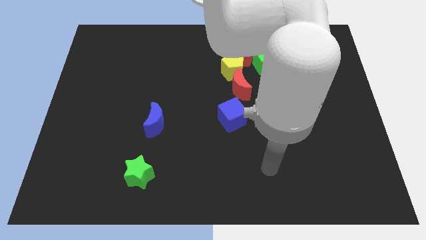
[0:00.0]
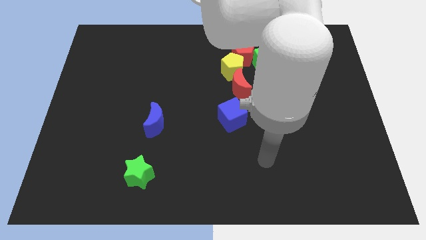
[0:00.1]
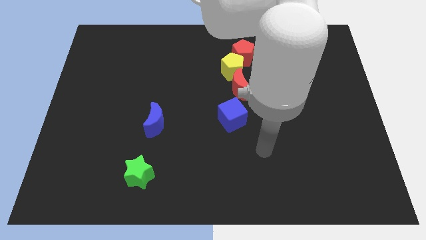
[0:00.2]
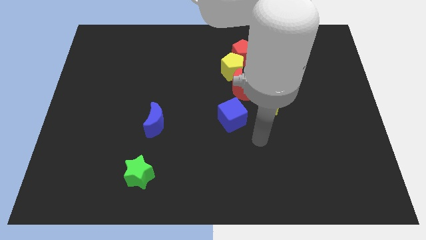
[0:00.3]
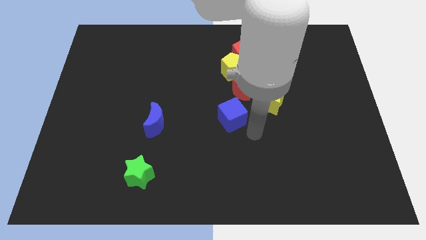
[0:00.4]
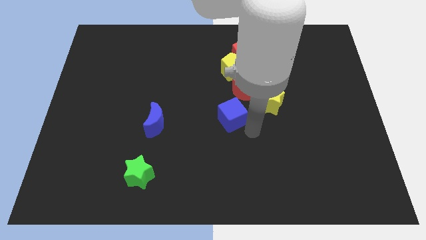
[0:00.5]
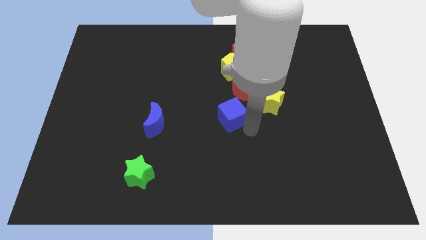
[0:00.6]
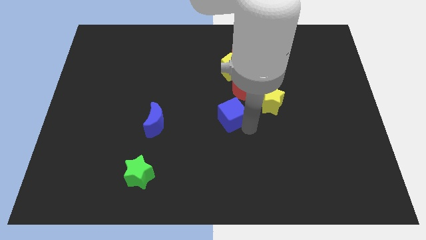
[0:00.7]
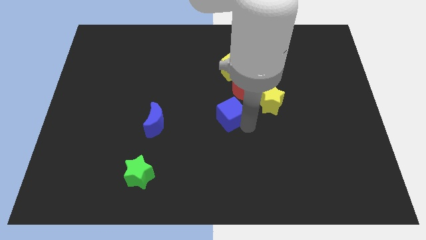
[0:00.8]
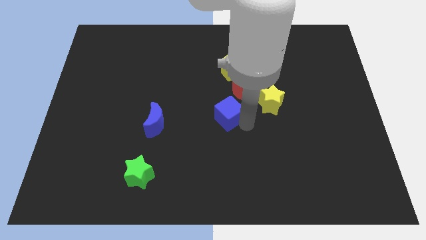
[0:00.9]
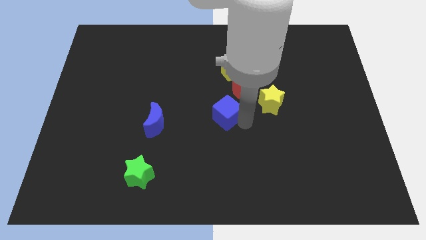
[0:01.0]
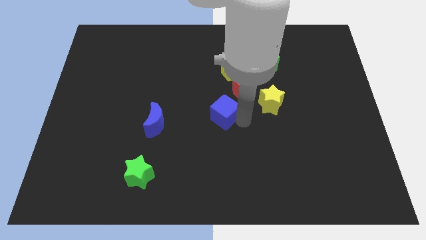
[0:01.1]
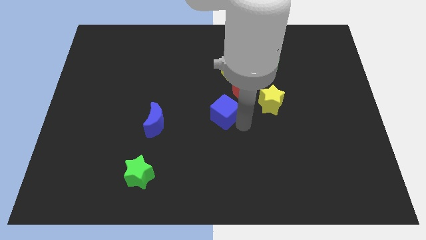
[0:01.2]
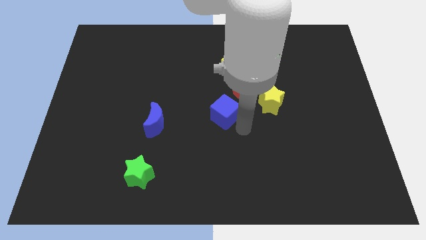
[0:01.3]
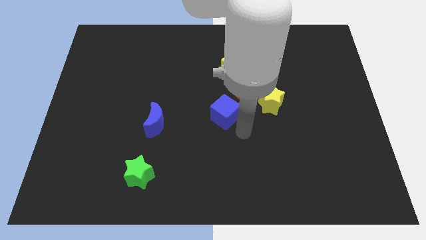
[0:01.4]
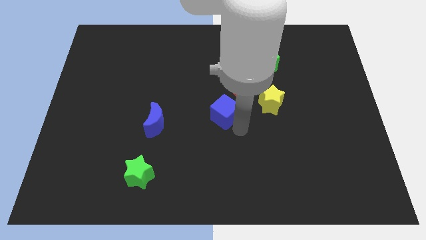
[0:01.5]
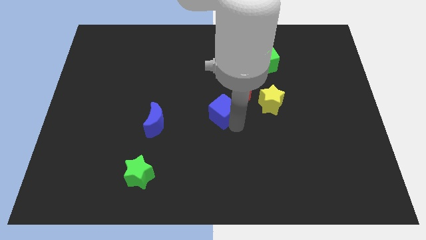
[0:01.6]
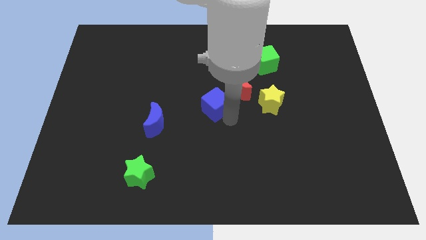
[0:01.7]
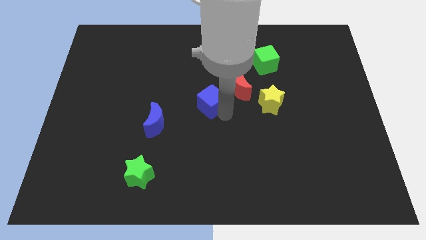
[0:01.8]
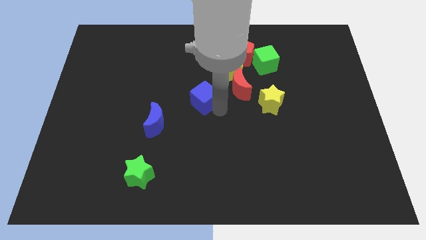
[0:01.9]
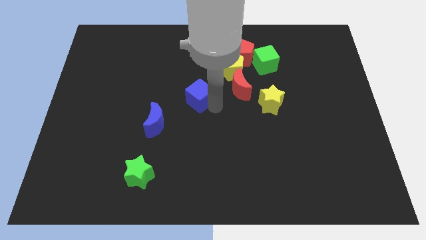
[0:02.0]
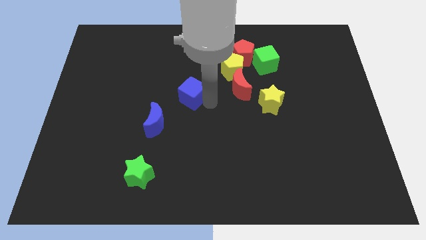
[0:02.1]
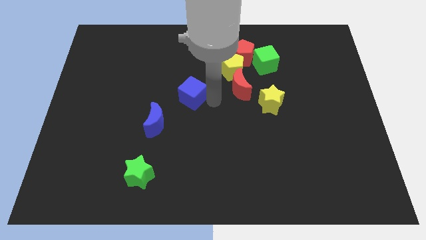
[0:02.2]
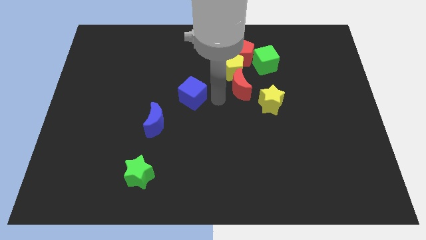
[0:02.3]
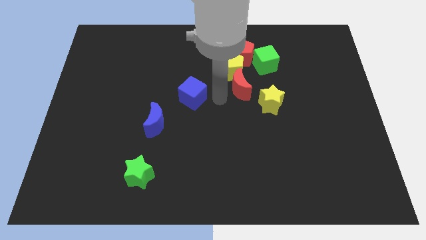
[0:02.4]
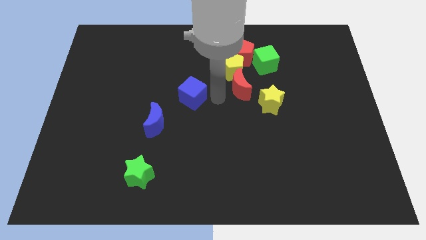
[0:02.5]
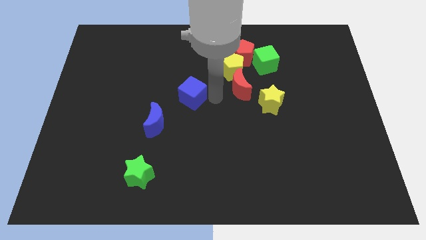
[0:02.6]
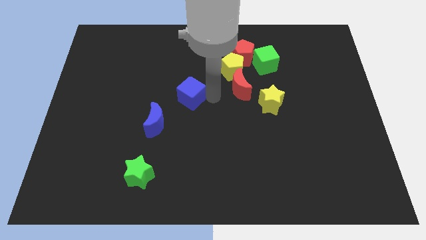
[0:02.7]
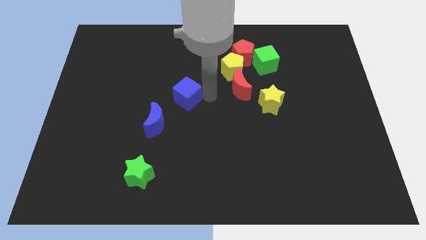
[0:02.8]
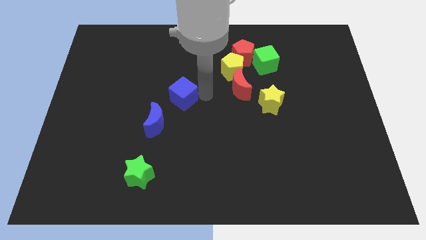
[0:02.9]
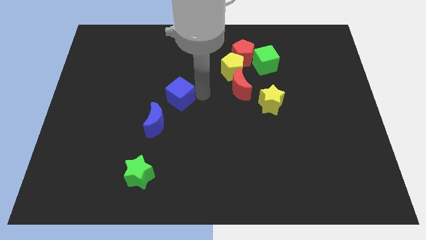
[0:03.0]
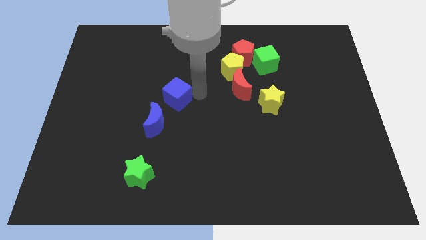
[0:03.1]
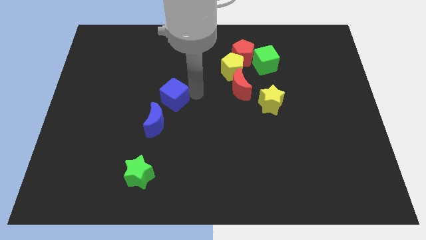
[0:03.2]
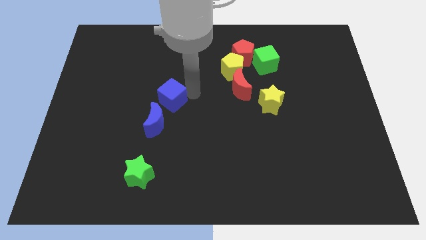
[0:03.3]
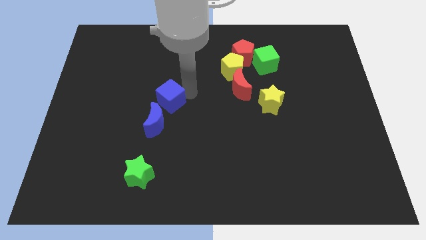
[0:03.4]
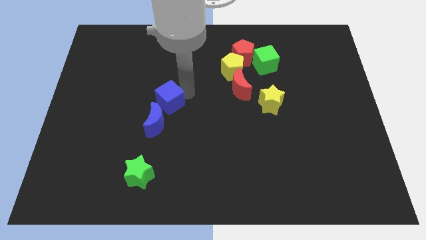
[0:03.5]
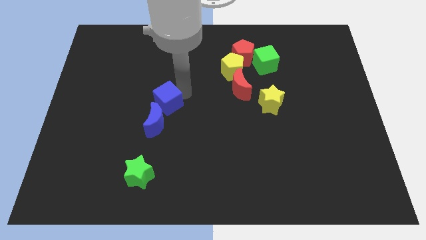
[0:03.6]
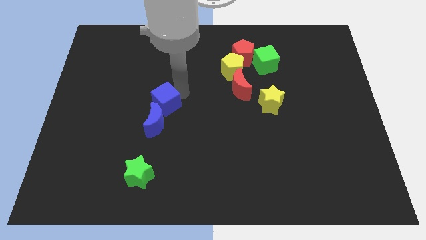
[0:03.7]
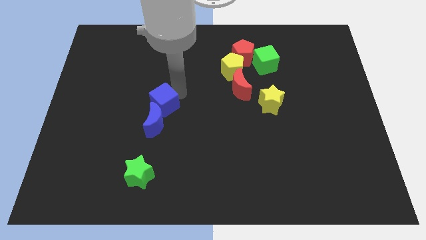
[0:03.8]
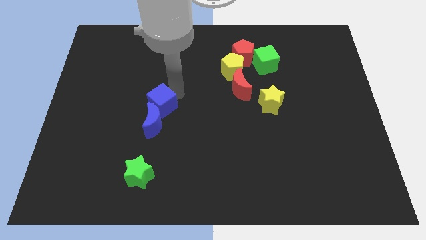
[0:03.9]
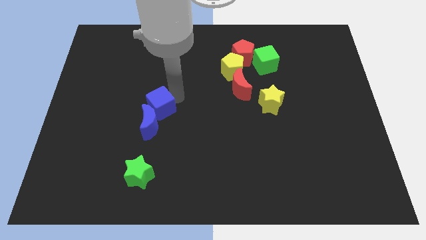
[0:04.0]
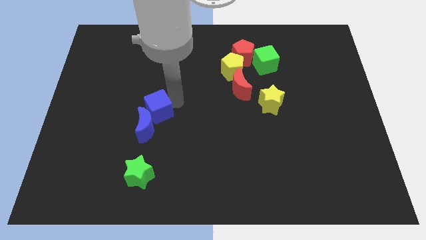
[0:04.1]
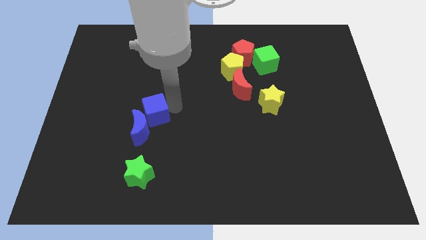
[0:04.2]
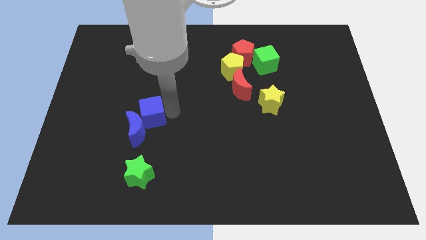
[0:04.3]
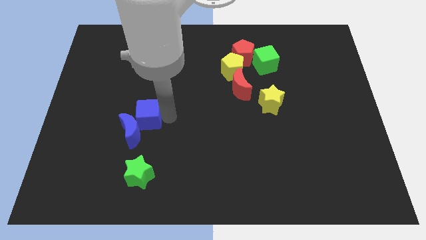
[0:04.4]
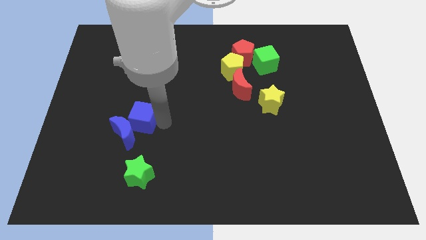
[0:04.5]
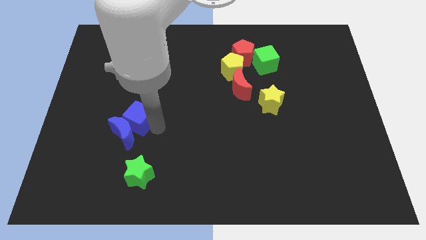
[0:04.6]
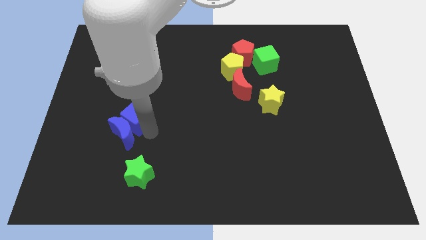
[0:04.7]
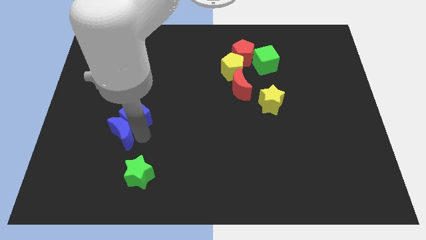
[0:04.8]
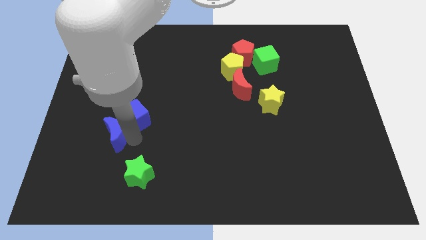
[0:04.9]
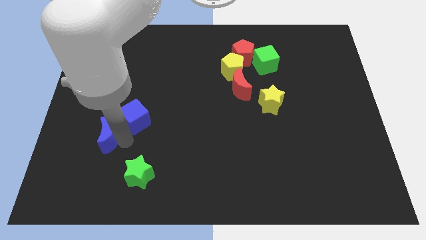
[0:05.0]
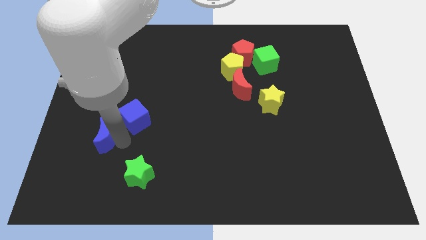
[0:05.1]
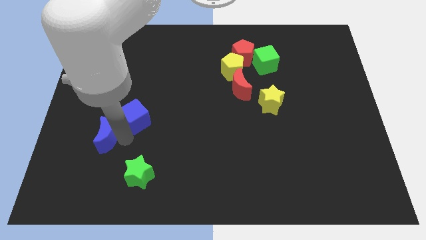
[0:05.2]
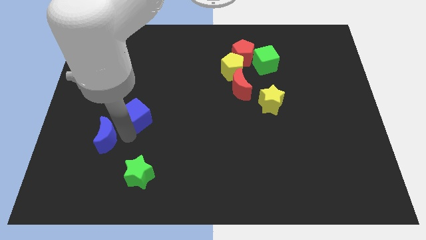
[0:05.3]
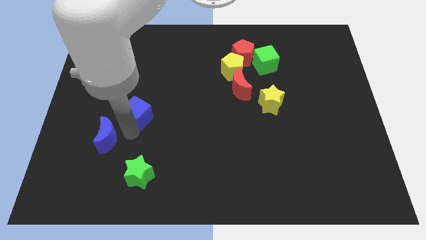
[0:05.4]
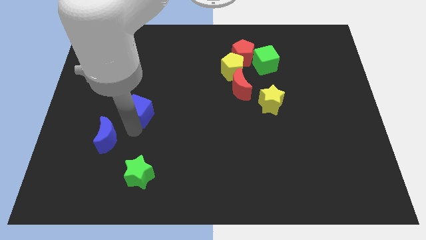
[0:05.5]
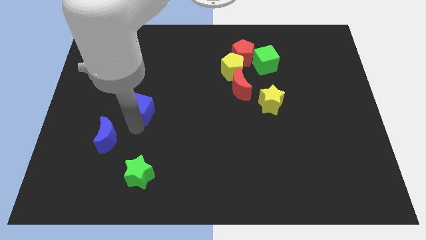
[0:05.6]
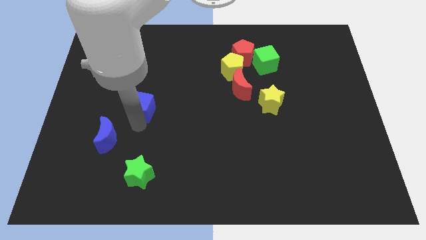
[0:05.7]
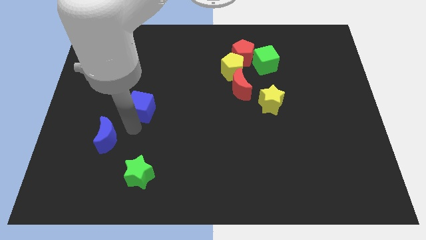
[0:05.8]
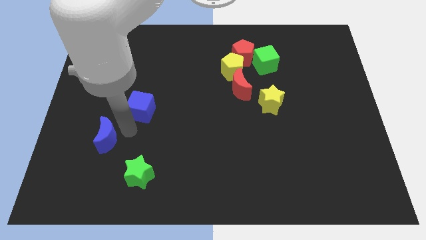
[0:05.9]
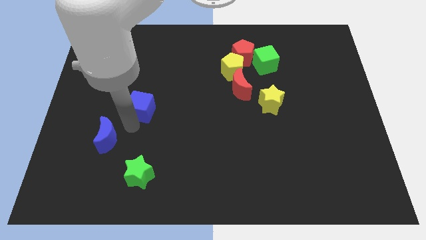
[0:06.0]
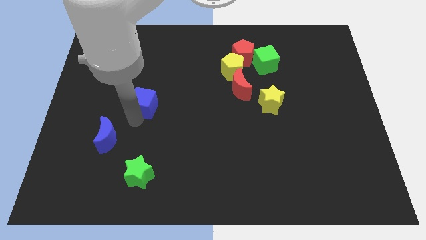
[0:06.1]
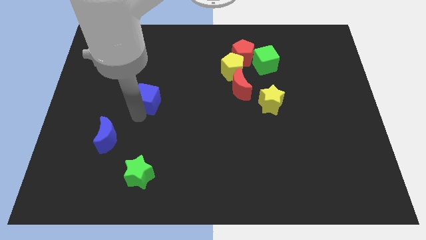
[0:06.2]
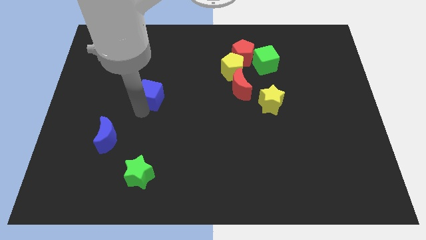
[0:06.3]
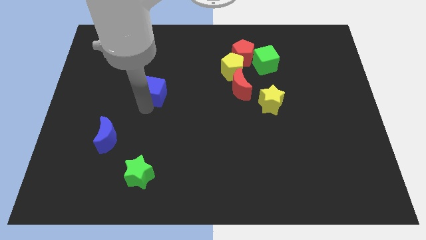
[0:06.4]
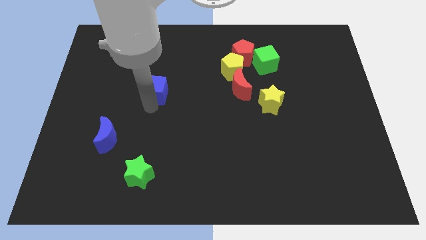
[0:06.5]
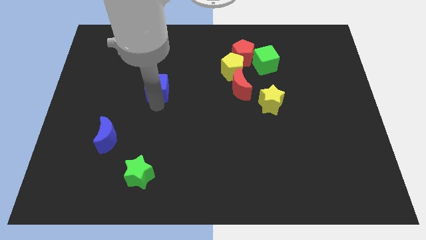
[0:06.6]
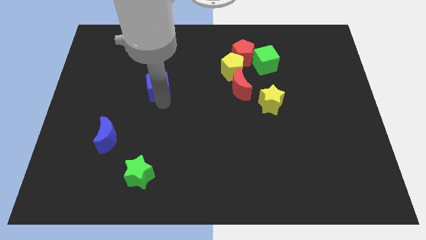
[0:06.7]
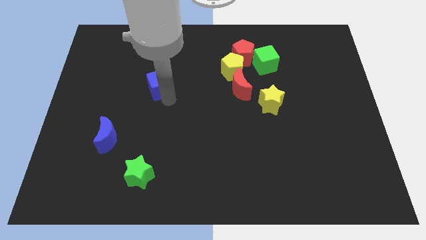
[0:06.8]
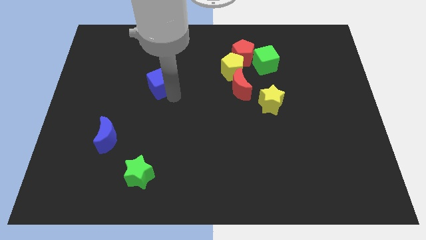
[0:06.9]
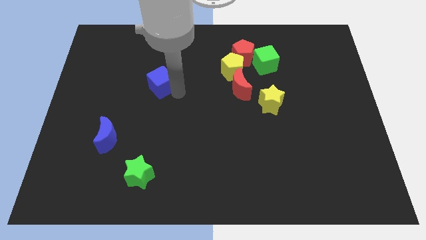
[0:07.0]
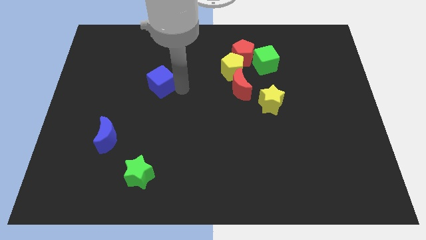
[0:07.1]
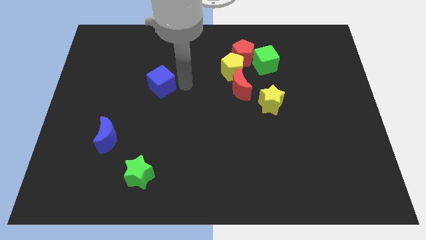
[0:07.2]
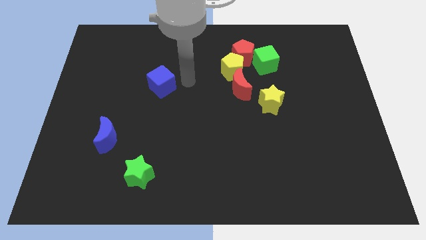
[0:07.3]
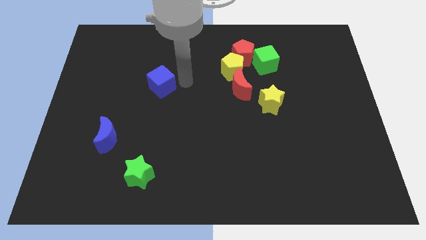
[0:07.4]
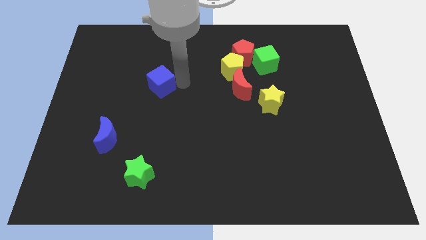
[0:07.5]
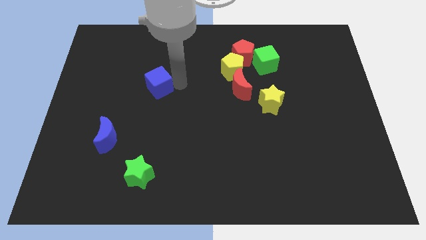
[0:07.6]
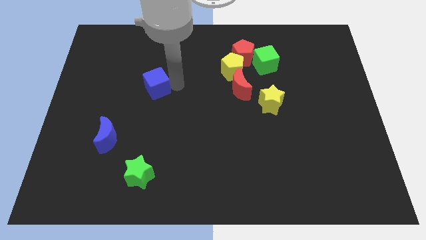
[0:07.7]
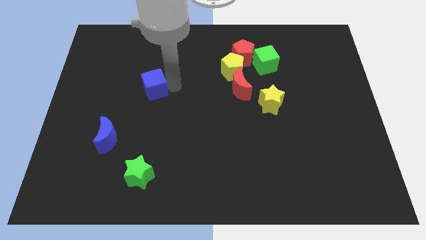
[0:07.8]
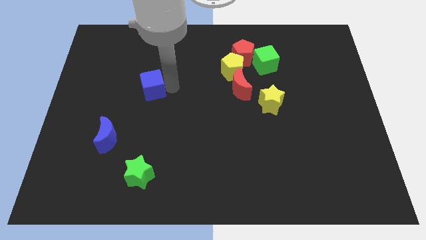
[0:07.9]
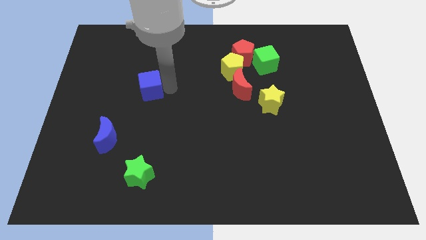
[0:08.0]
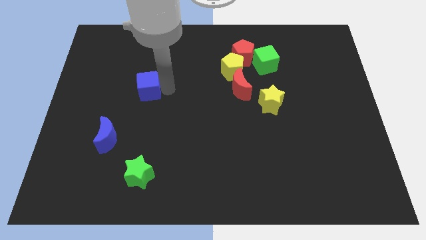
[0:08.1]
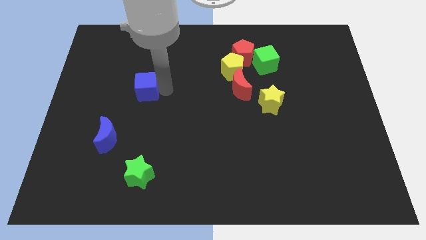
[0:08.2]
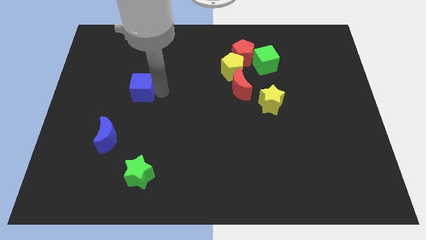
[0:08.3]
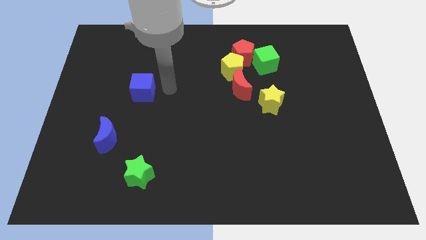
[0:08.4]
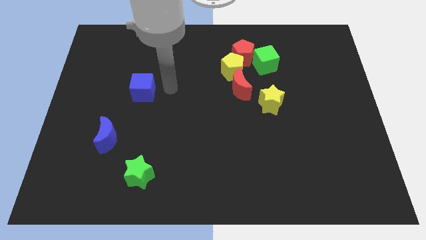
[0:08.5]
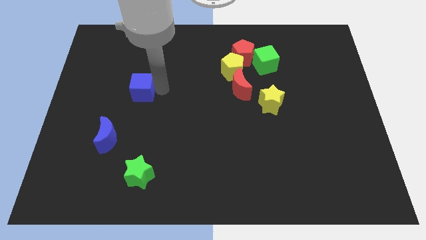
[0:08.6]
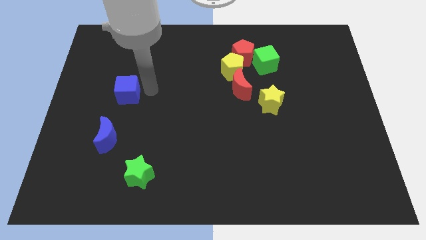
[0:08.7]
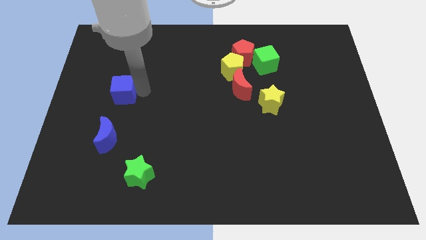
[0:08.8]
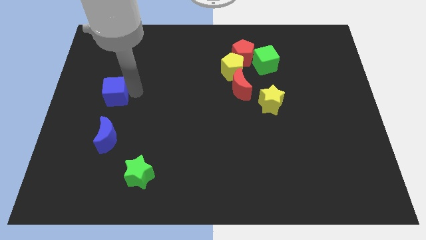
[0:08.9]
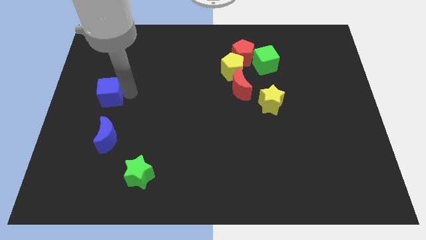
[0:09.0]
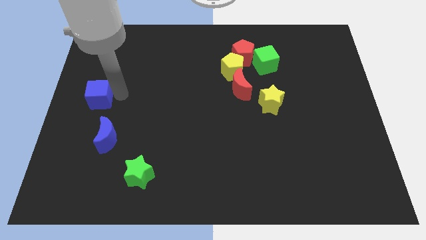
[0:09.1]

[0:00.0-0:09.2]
slide the blue cube to the left side of the board
